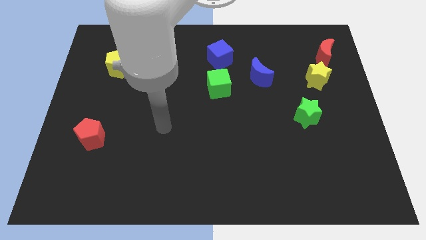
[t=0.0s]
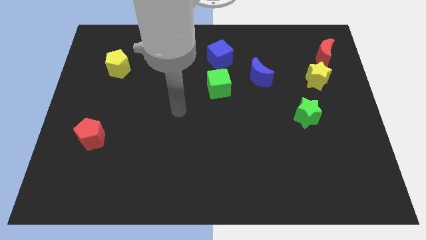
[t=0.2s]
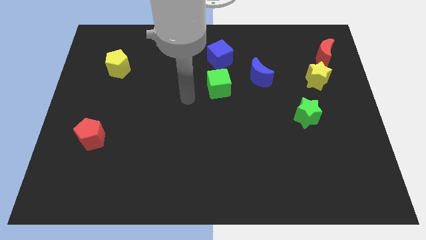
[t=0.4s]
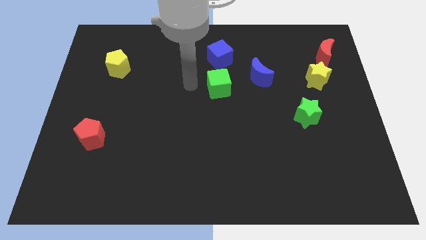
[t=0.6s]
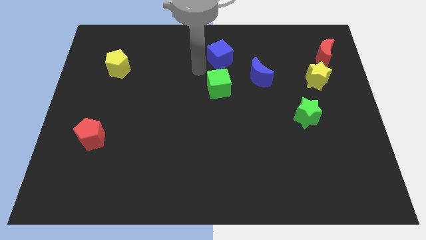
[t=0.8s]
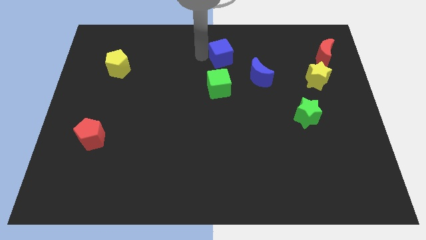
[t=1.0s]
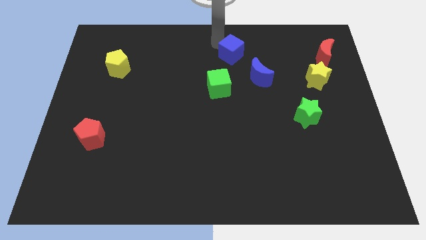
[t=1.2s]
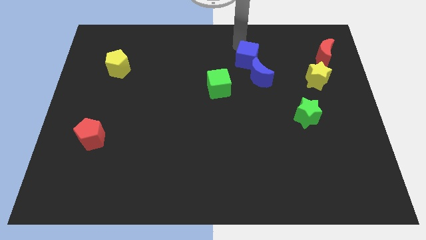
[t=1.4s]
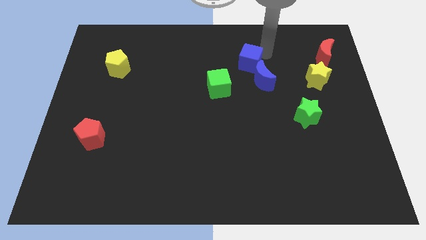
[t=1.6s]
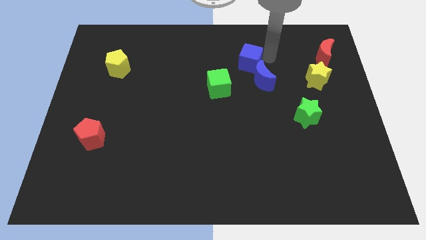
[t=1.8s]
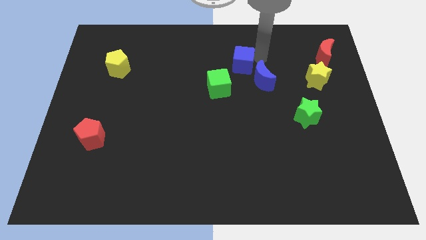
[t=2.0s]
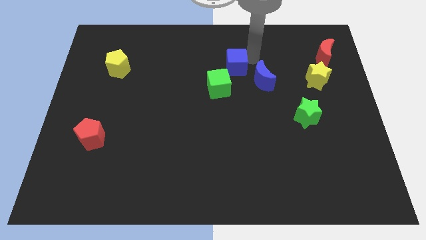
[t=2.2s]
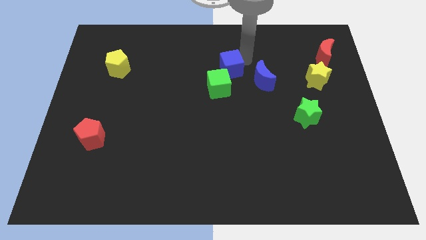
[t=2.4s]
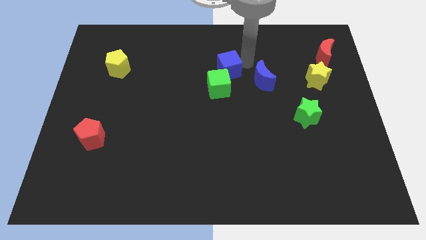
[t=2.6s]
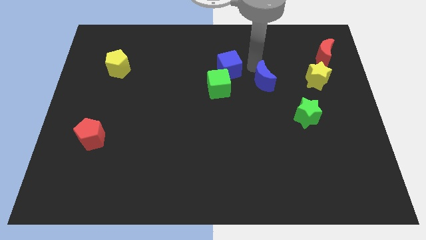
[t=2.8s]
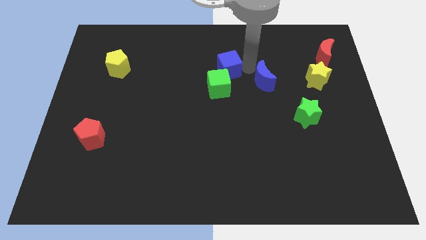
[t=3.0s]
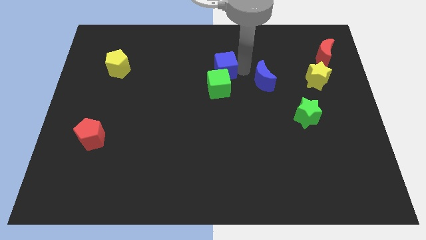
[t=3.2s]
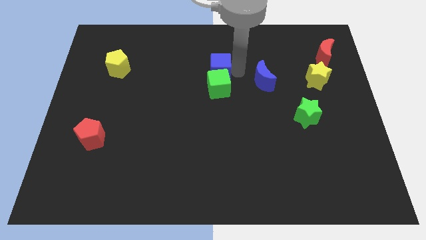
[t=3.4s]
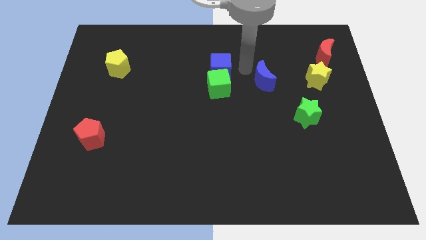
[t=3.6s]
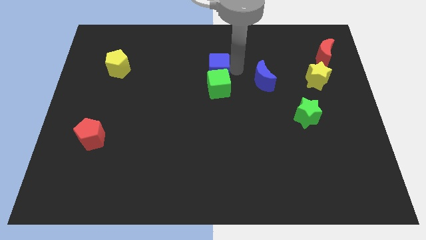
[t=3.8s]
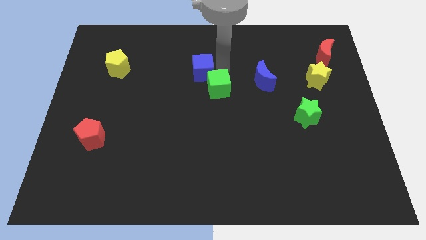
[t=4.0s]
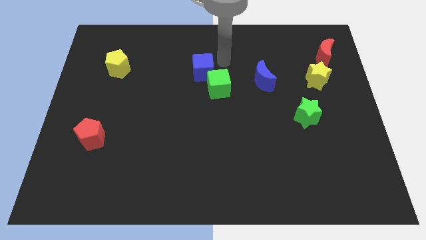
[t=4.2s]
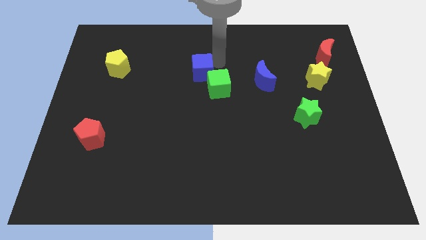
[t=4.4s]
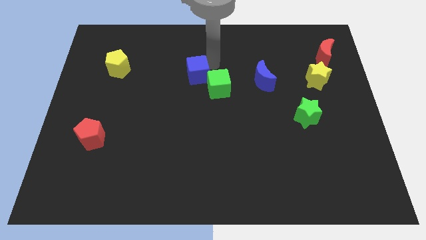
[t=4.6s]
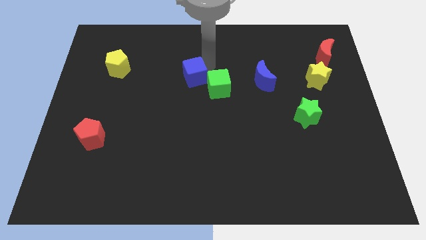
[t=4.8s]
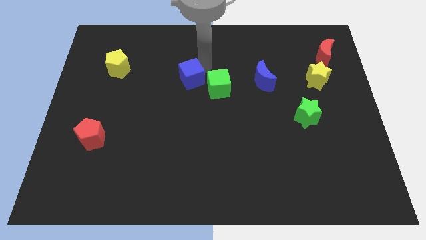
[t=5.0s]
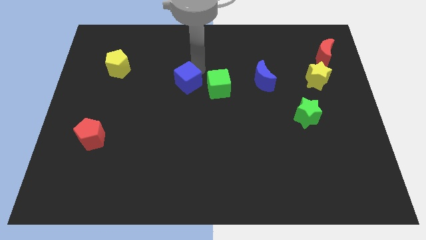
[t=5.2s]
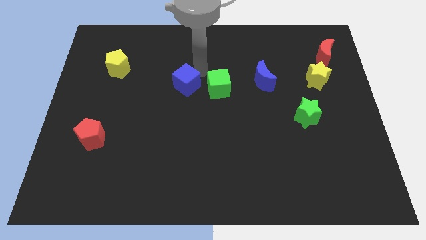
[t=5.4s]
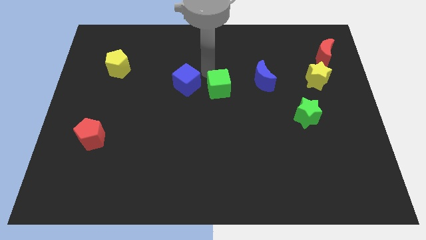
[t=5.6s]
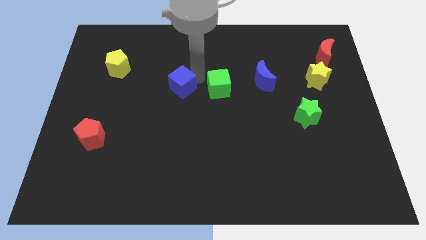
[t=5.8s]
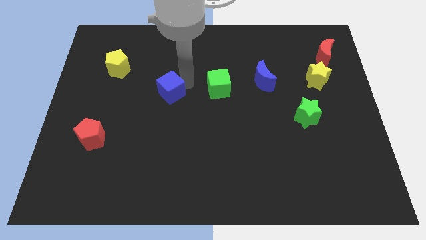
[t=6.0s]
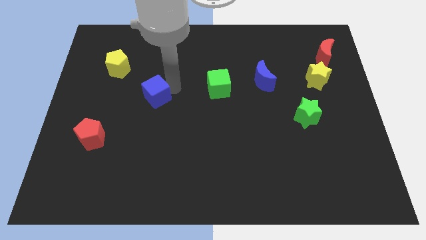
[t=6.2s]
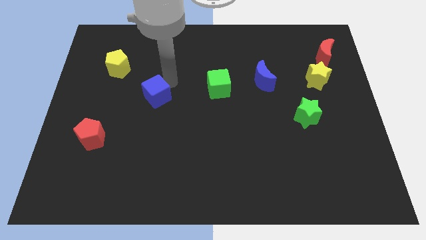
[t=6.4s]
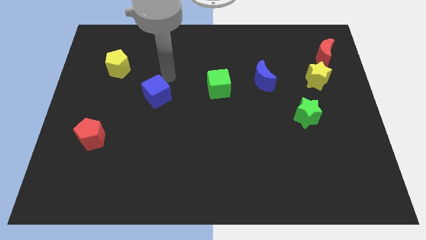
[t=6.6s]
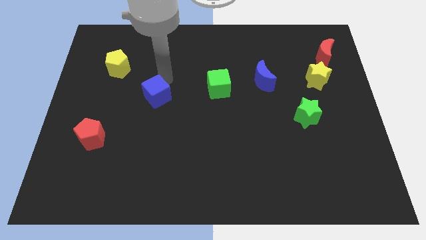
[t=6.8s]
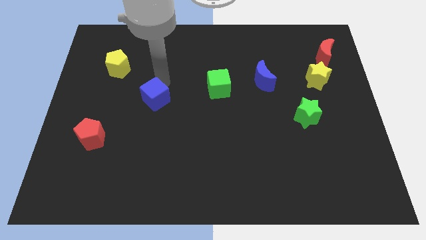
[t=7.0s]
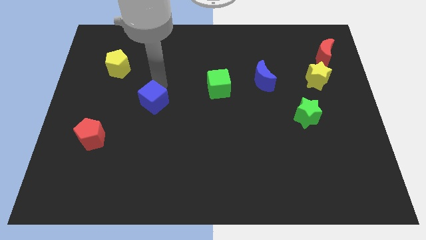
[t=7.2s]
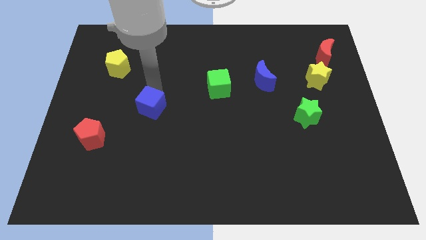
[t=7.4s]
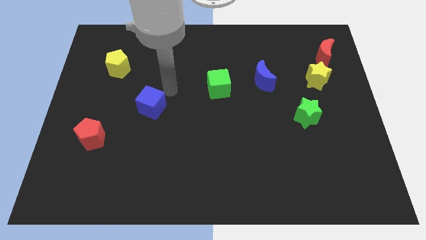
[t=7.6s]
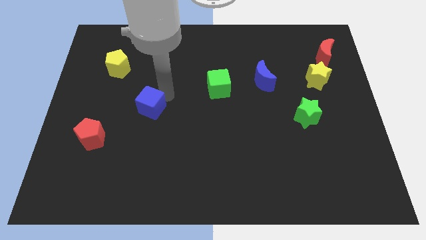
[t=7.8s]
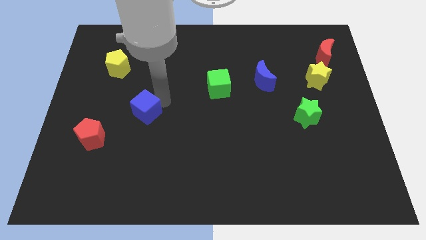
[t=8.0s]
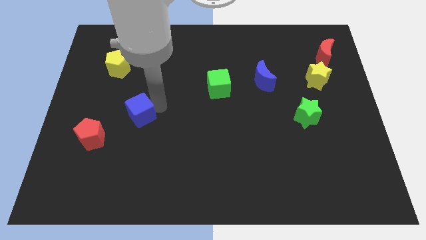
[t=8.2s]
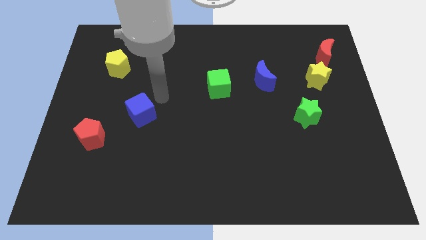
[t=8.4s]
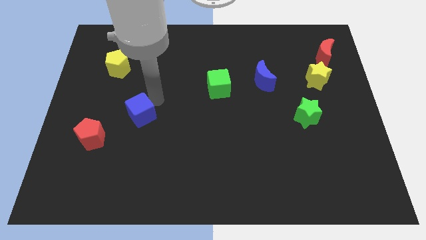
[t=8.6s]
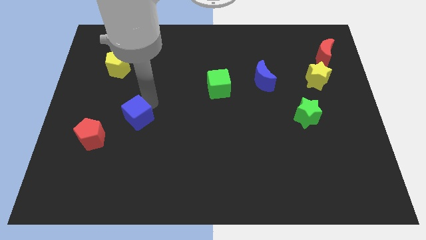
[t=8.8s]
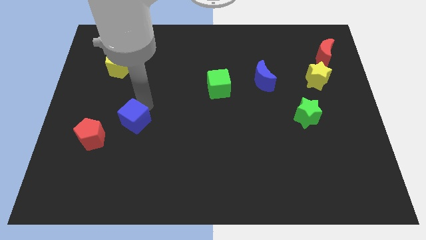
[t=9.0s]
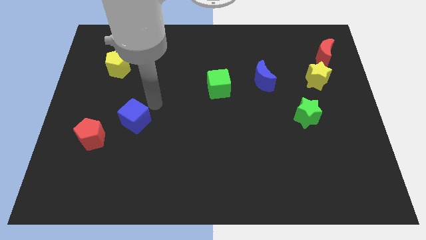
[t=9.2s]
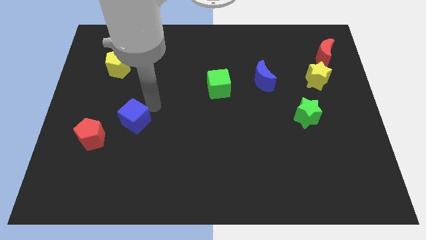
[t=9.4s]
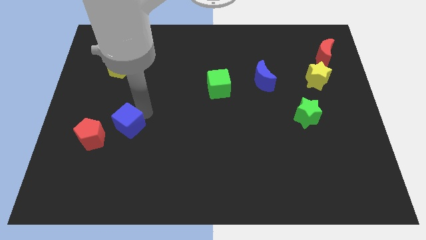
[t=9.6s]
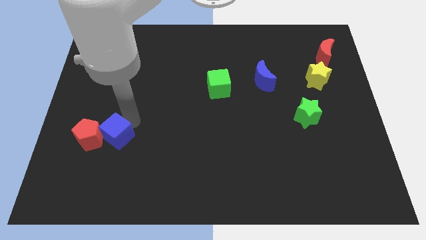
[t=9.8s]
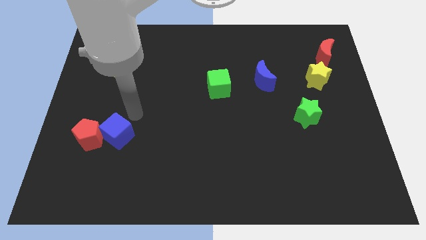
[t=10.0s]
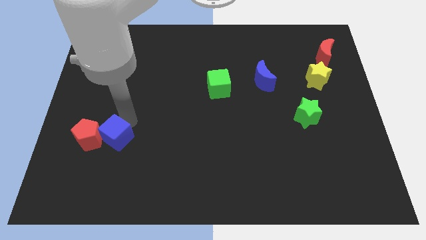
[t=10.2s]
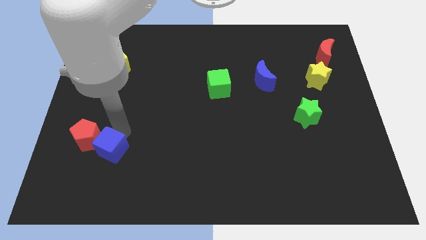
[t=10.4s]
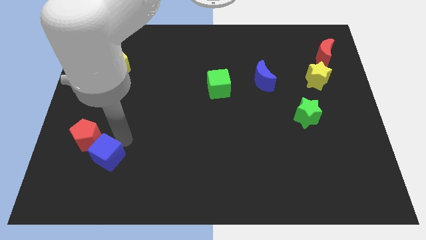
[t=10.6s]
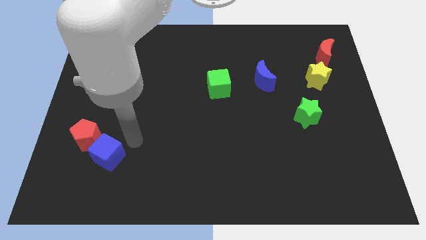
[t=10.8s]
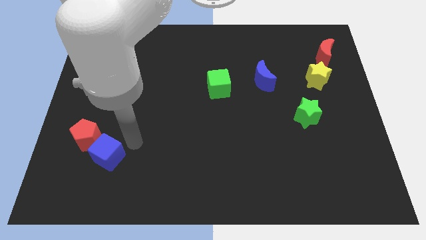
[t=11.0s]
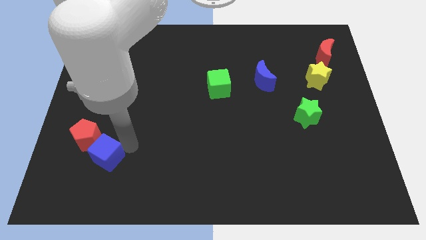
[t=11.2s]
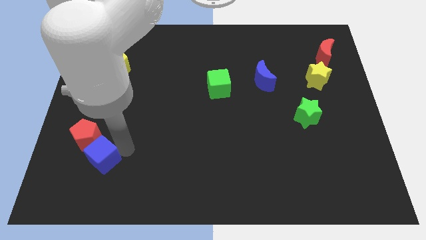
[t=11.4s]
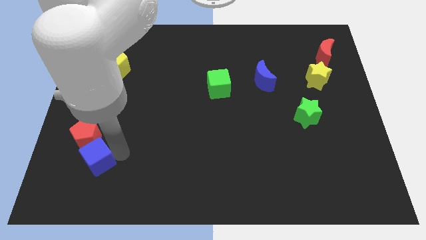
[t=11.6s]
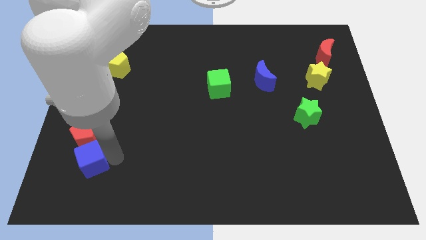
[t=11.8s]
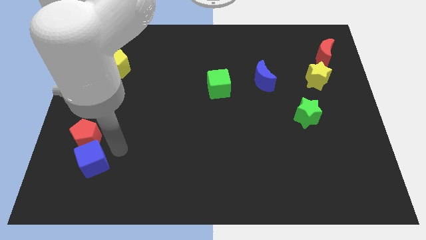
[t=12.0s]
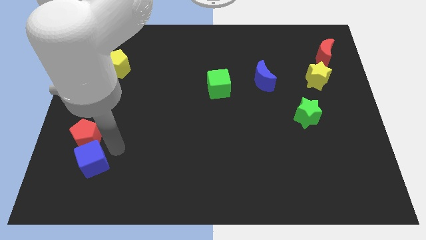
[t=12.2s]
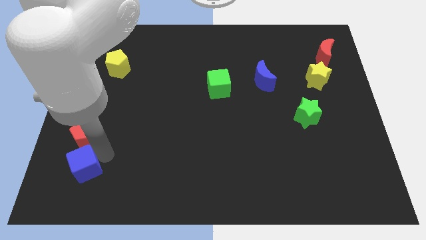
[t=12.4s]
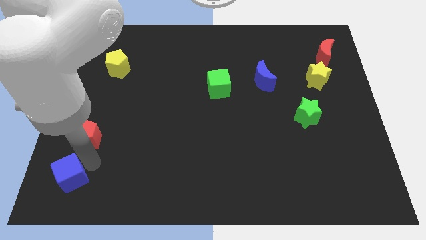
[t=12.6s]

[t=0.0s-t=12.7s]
push the blue cube to the bottom left of the board
